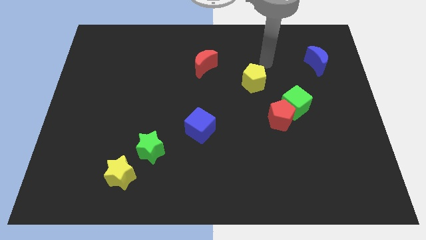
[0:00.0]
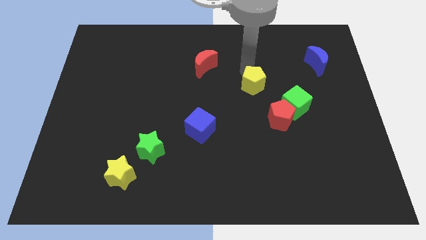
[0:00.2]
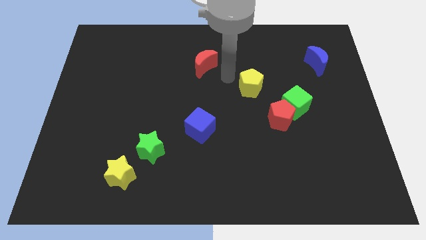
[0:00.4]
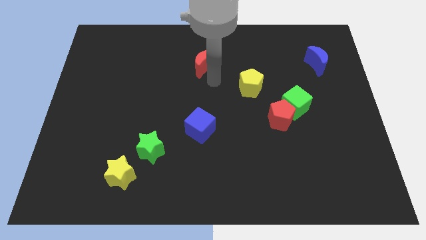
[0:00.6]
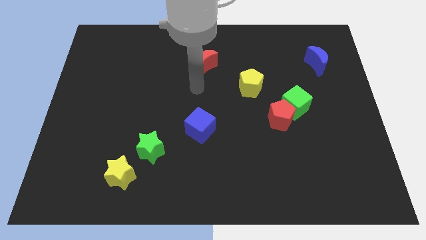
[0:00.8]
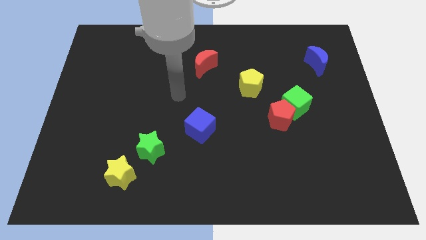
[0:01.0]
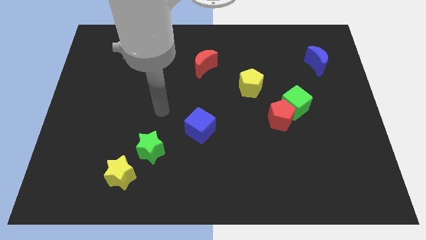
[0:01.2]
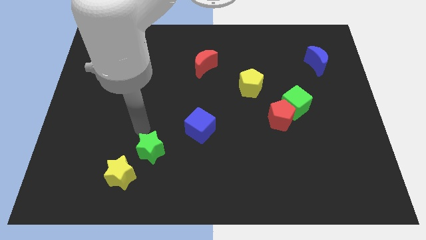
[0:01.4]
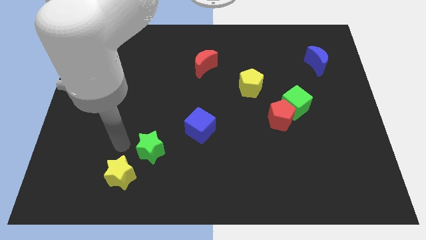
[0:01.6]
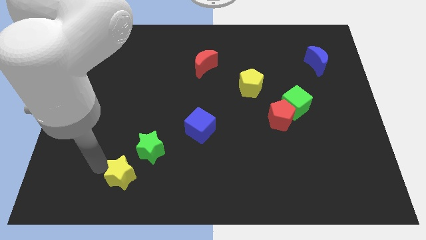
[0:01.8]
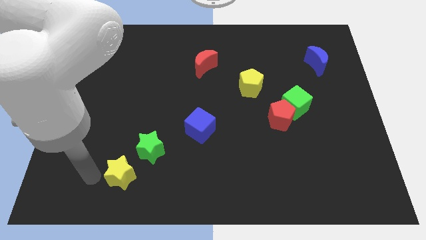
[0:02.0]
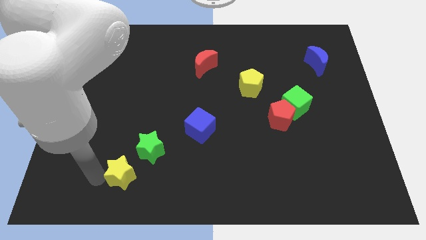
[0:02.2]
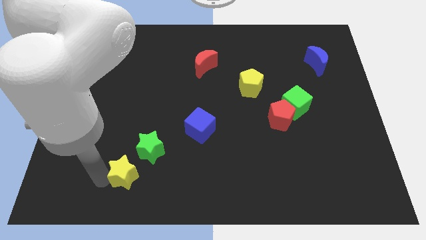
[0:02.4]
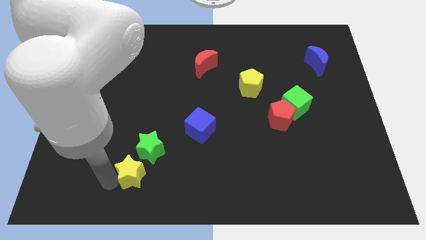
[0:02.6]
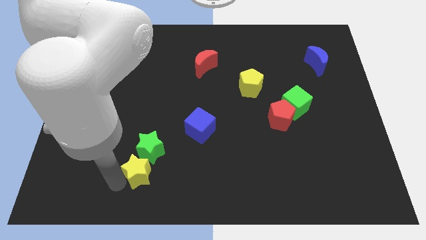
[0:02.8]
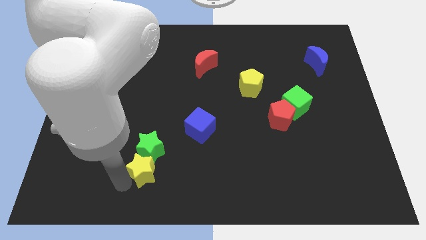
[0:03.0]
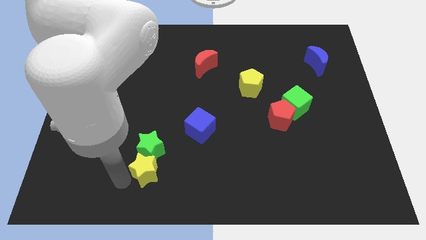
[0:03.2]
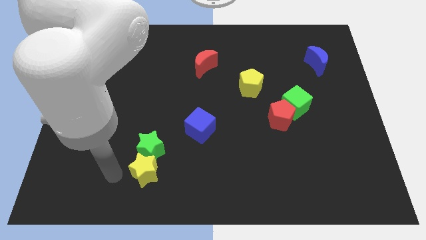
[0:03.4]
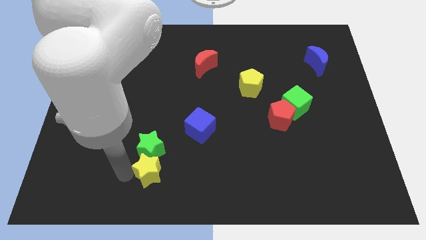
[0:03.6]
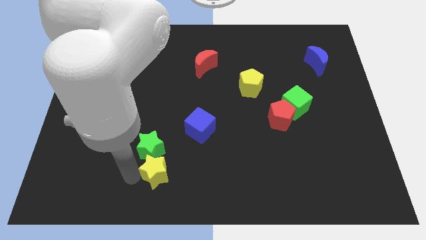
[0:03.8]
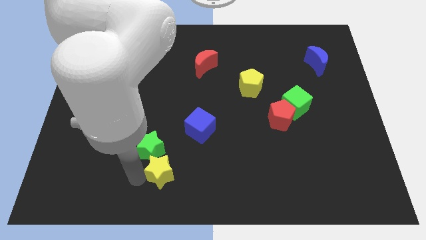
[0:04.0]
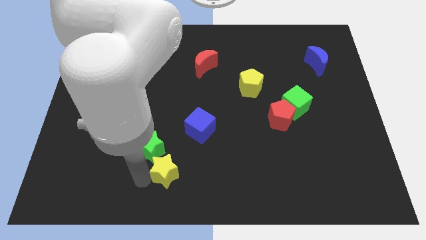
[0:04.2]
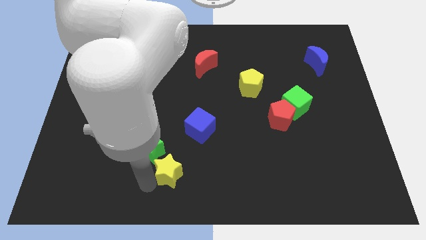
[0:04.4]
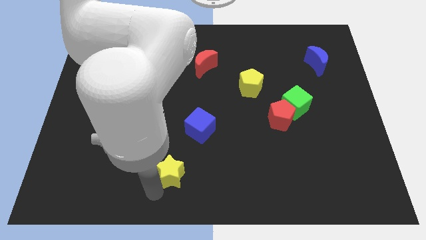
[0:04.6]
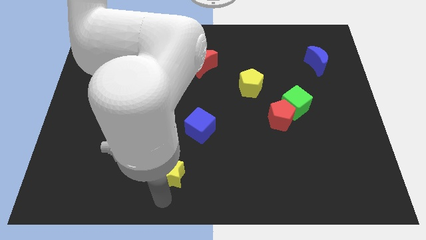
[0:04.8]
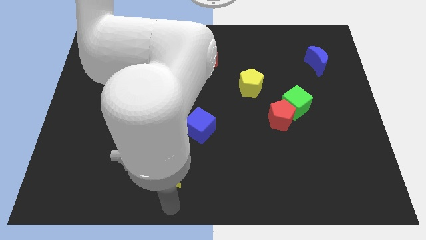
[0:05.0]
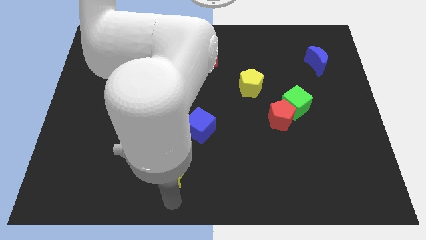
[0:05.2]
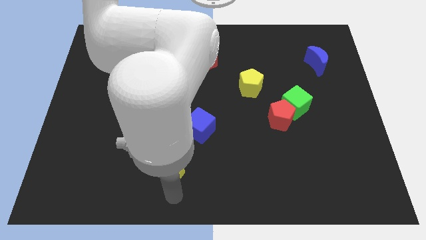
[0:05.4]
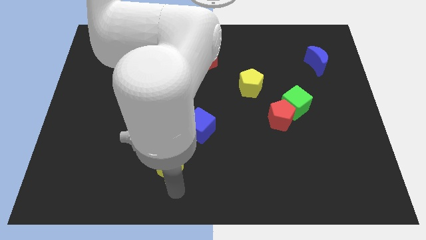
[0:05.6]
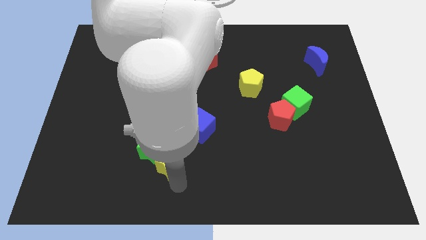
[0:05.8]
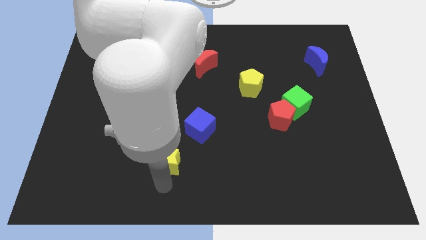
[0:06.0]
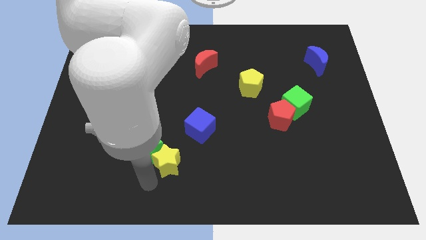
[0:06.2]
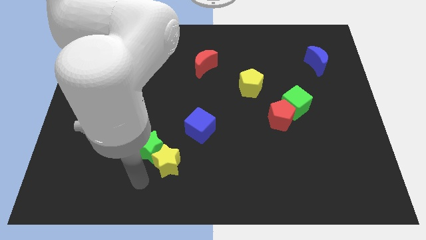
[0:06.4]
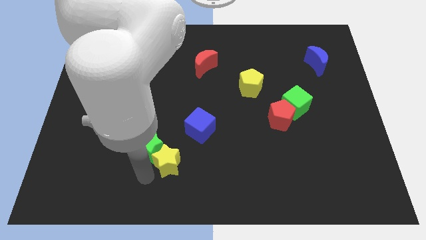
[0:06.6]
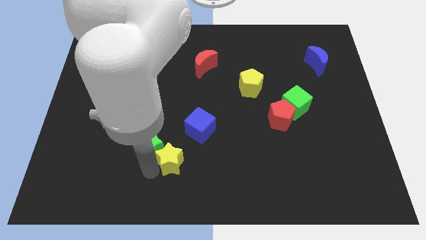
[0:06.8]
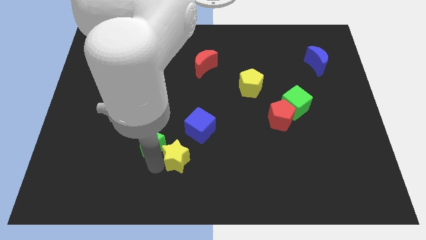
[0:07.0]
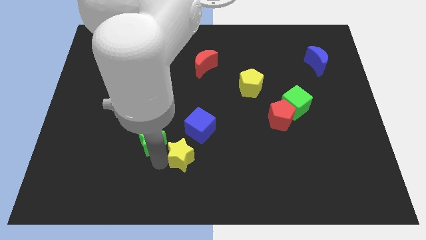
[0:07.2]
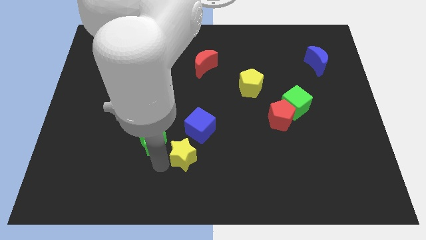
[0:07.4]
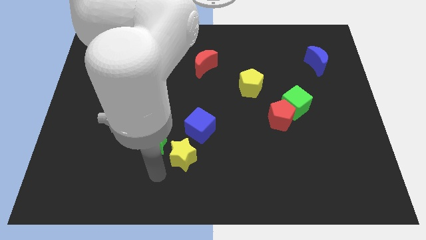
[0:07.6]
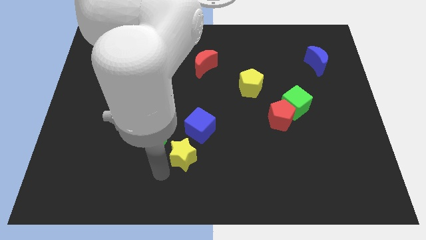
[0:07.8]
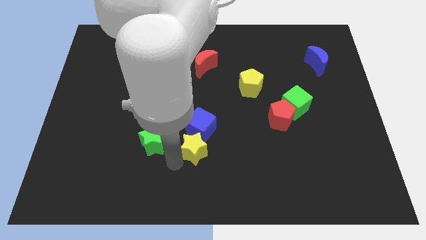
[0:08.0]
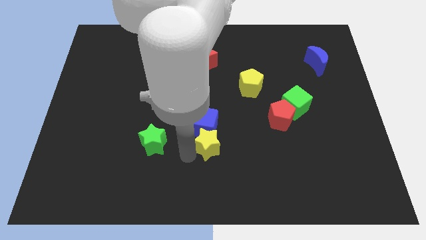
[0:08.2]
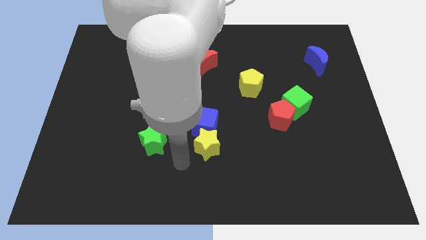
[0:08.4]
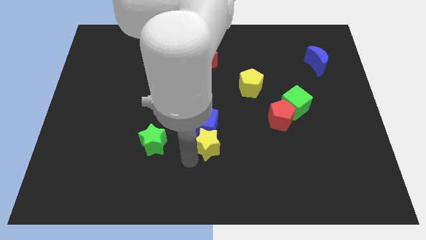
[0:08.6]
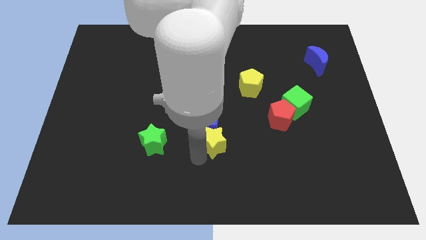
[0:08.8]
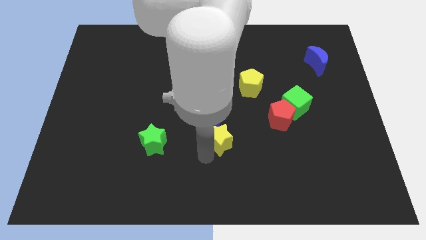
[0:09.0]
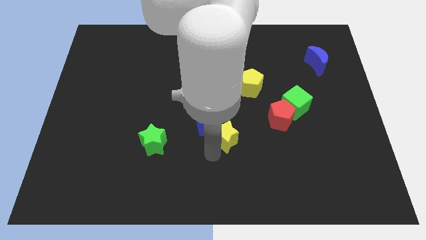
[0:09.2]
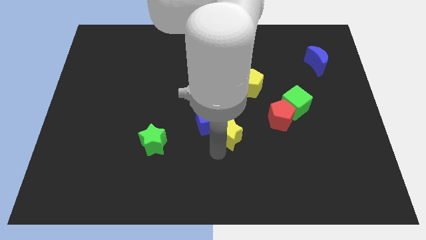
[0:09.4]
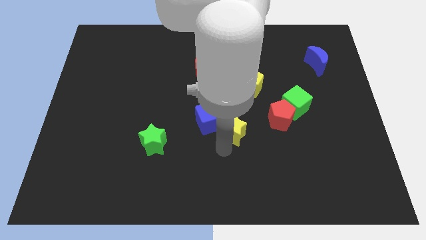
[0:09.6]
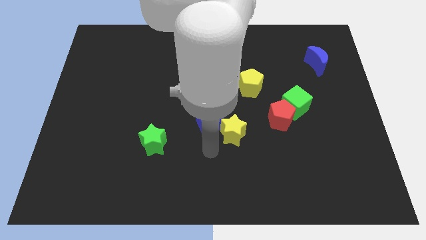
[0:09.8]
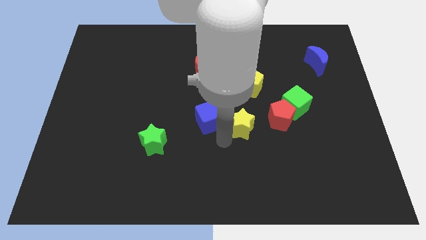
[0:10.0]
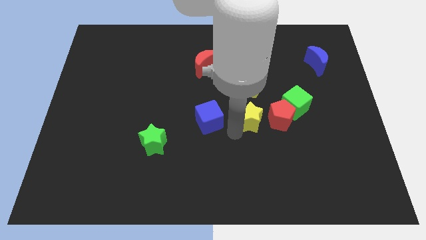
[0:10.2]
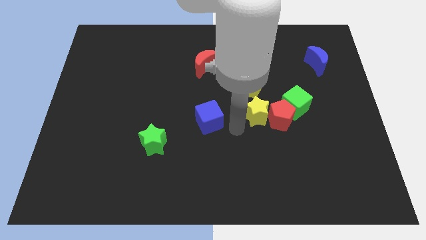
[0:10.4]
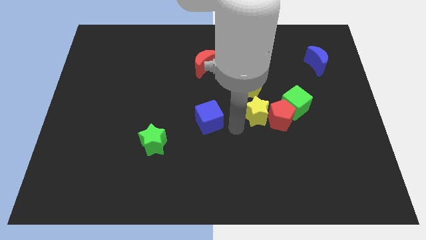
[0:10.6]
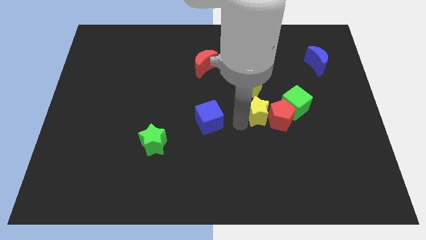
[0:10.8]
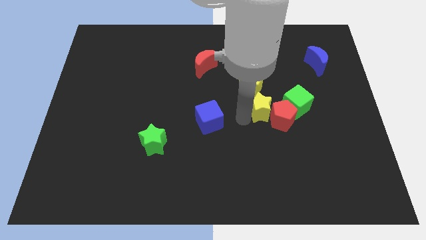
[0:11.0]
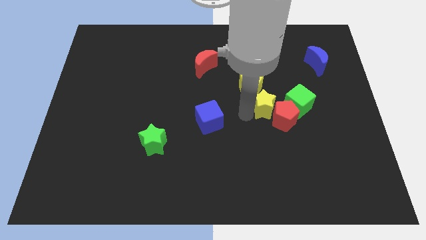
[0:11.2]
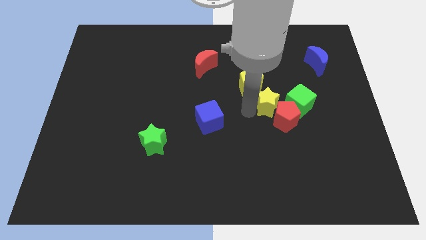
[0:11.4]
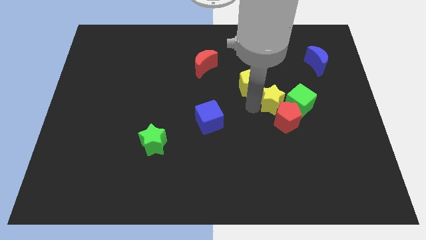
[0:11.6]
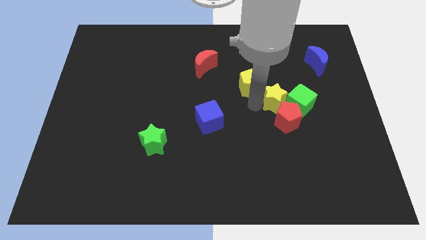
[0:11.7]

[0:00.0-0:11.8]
slide the yellow star towards the green cube

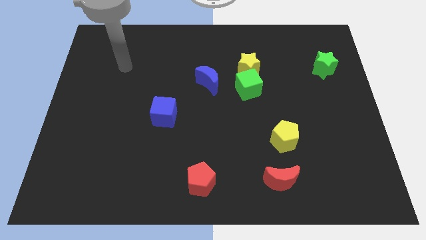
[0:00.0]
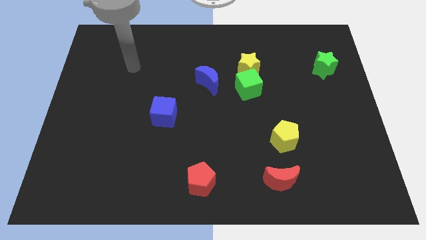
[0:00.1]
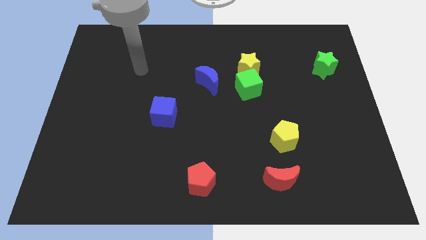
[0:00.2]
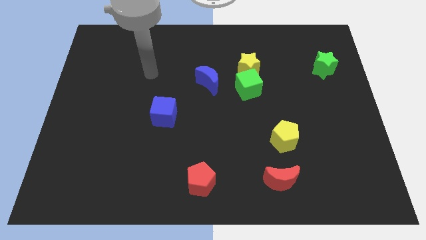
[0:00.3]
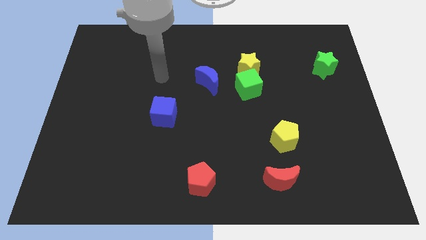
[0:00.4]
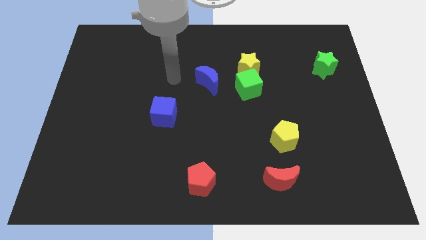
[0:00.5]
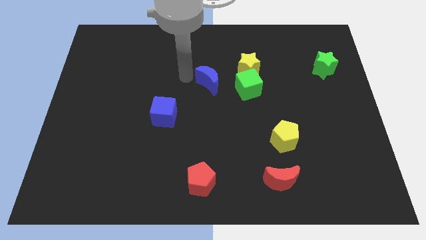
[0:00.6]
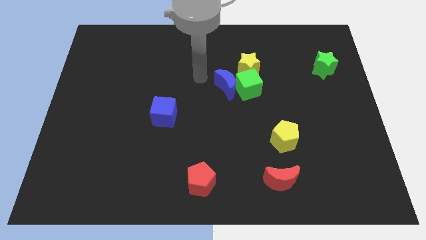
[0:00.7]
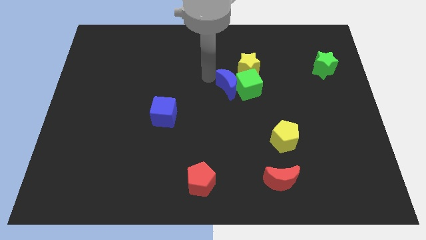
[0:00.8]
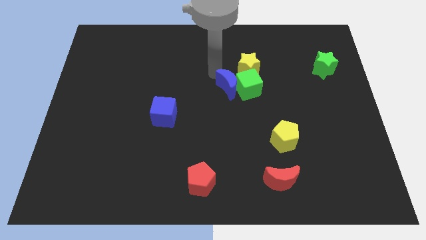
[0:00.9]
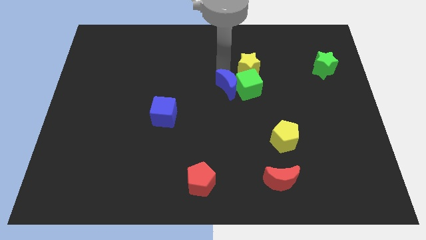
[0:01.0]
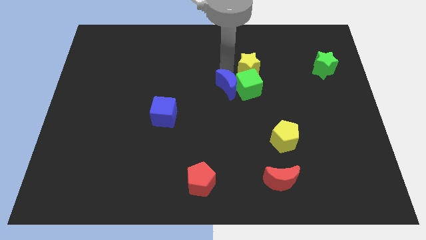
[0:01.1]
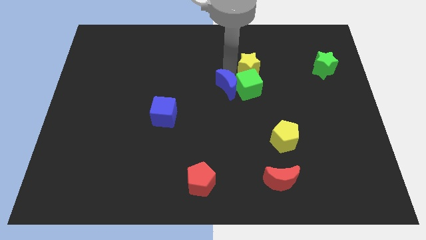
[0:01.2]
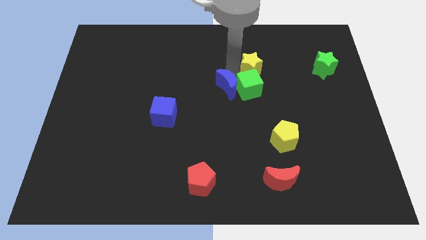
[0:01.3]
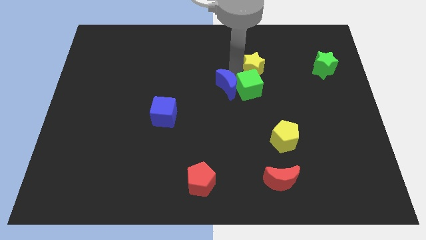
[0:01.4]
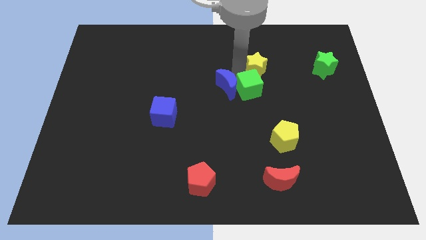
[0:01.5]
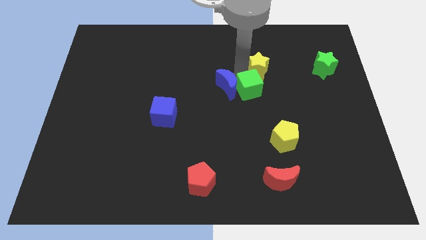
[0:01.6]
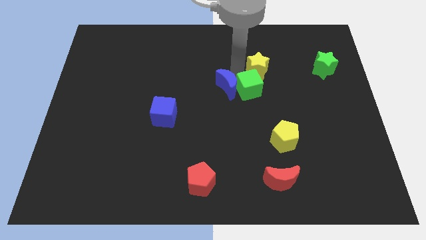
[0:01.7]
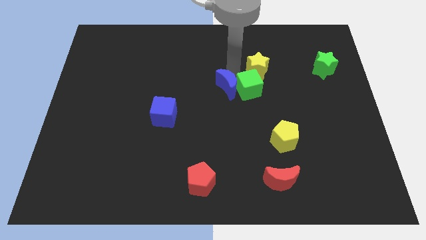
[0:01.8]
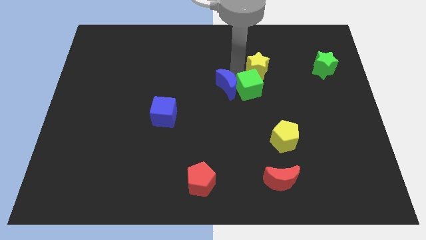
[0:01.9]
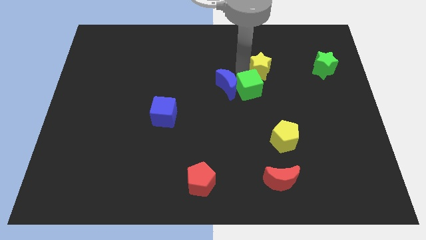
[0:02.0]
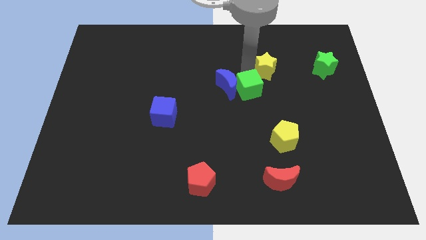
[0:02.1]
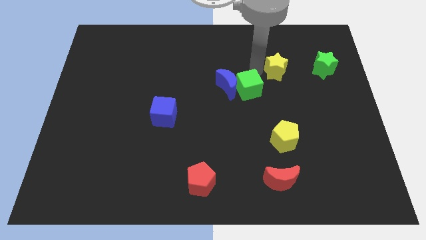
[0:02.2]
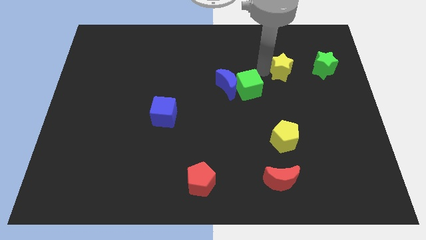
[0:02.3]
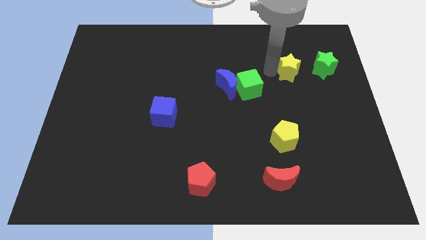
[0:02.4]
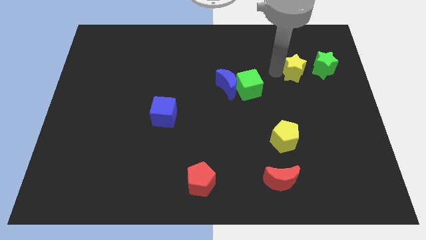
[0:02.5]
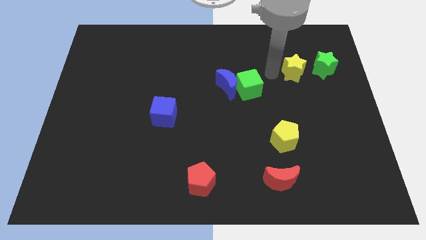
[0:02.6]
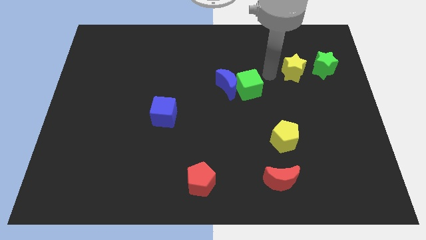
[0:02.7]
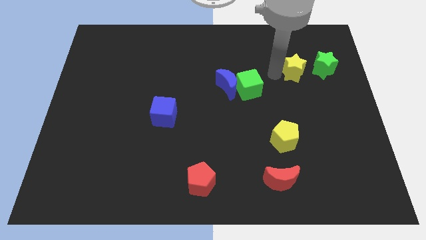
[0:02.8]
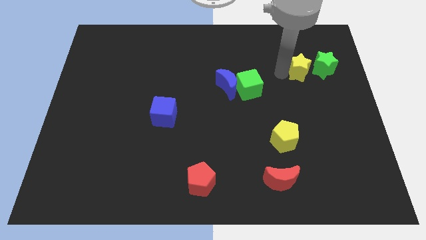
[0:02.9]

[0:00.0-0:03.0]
put the yellow star close to the green star
